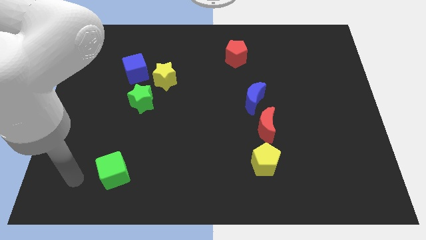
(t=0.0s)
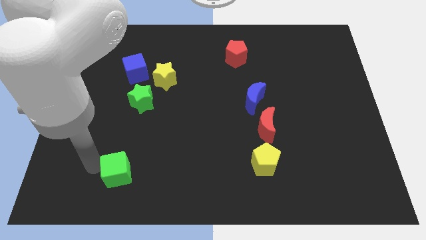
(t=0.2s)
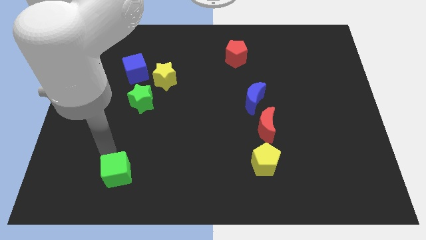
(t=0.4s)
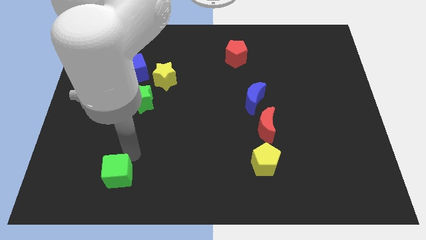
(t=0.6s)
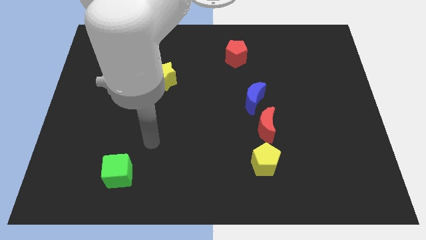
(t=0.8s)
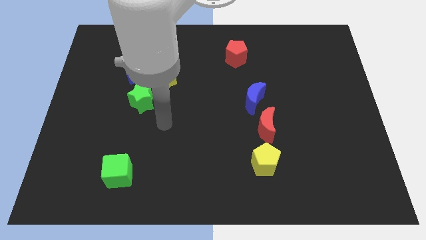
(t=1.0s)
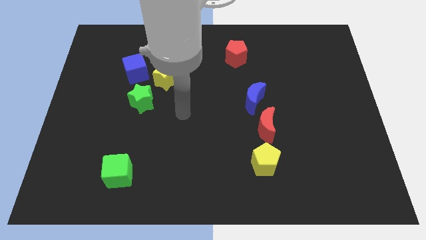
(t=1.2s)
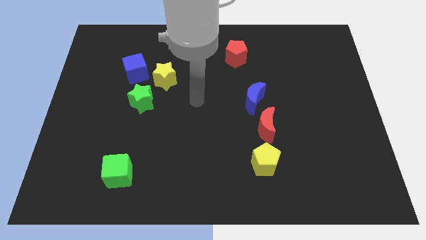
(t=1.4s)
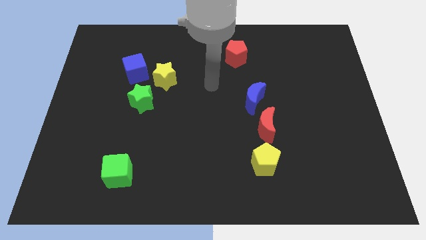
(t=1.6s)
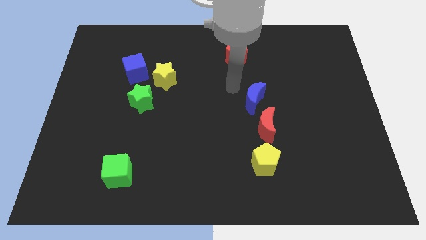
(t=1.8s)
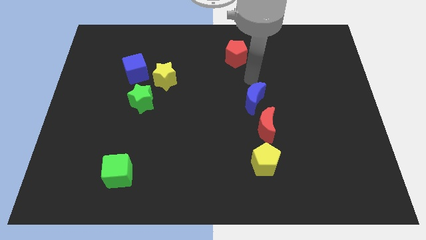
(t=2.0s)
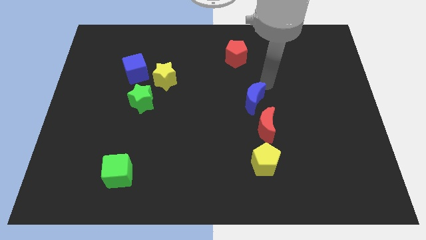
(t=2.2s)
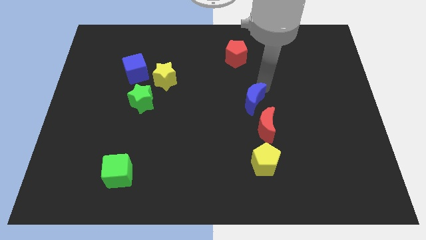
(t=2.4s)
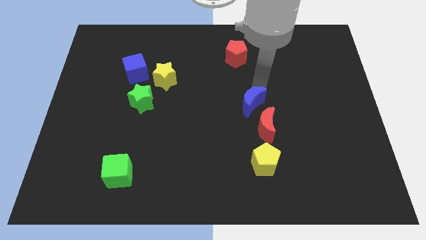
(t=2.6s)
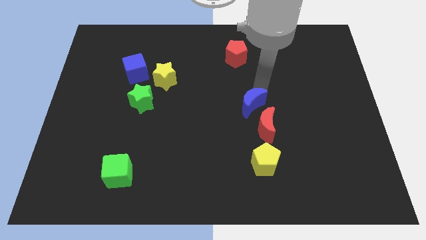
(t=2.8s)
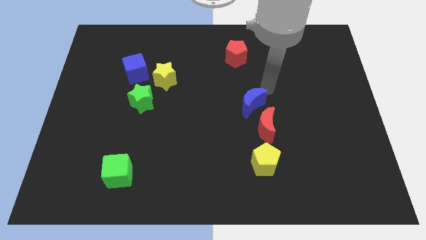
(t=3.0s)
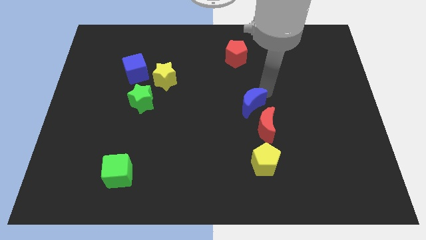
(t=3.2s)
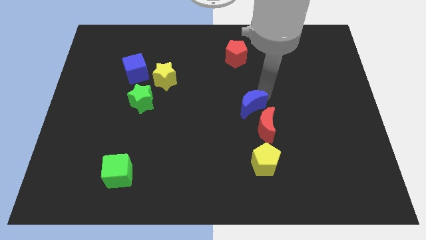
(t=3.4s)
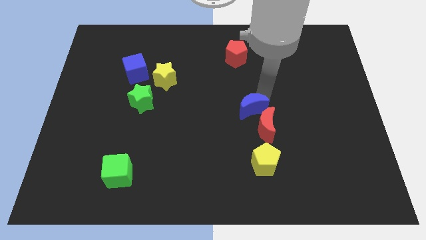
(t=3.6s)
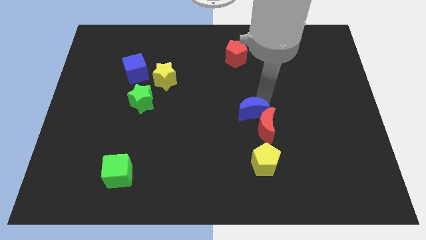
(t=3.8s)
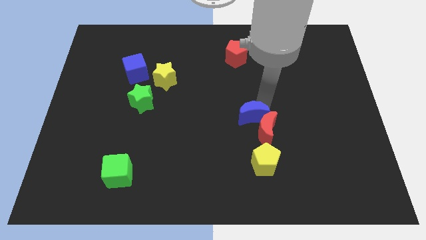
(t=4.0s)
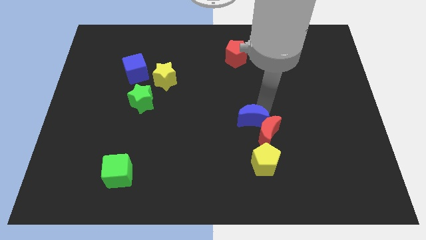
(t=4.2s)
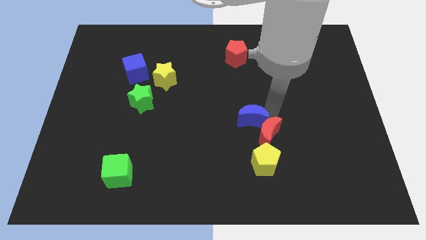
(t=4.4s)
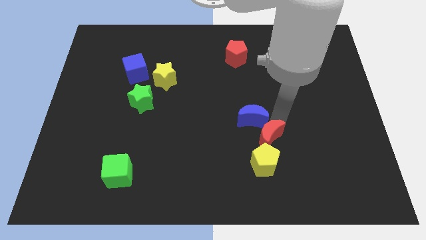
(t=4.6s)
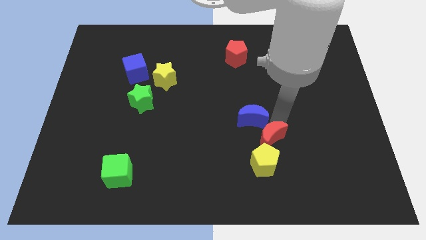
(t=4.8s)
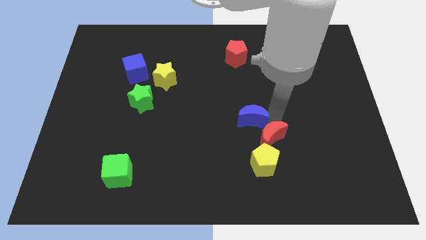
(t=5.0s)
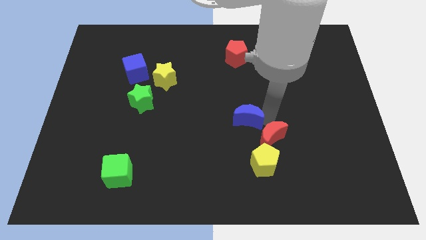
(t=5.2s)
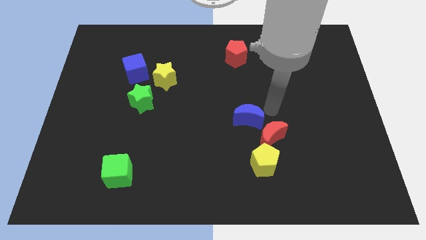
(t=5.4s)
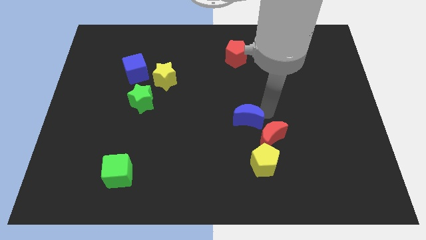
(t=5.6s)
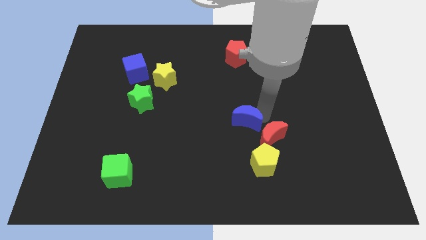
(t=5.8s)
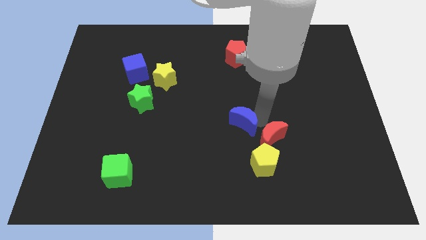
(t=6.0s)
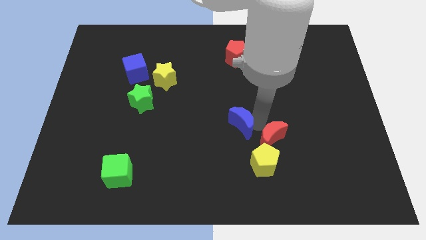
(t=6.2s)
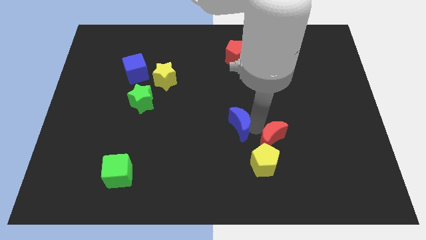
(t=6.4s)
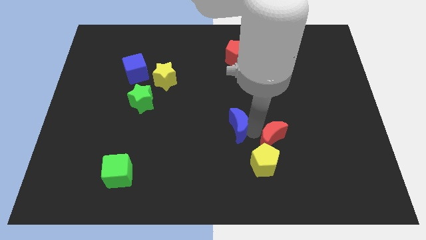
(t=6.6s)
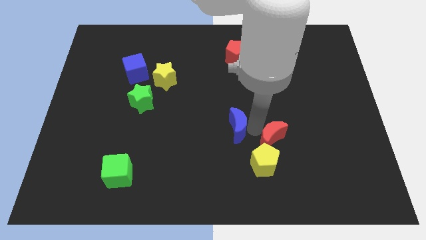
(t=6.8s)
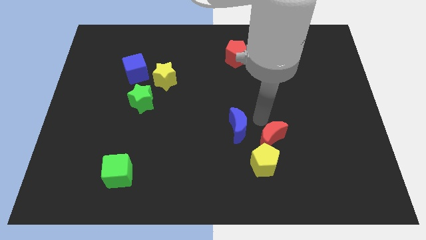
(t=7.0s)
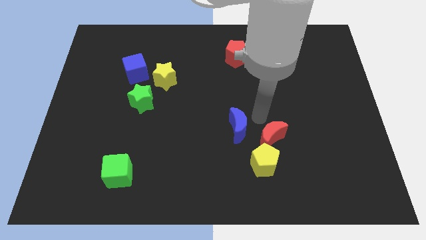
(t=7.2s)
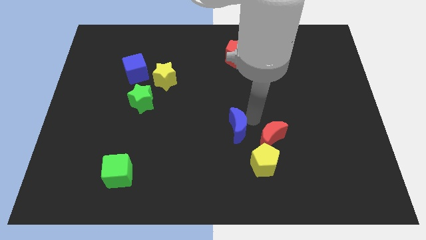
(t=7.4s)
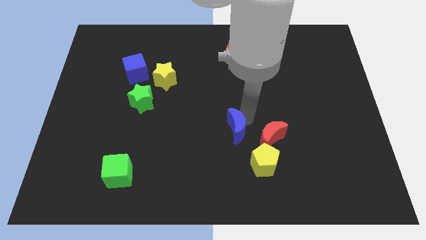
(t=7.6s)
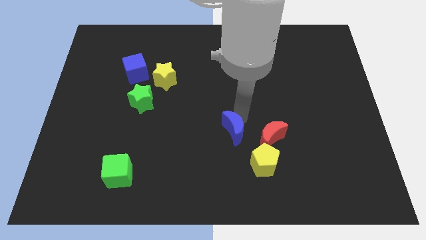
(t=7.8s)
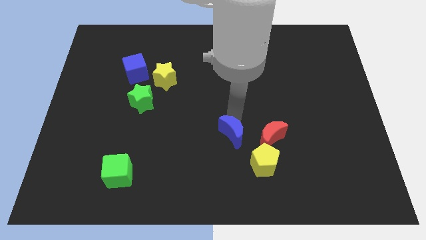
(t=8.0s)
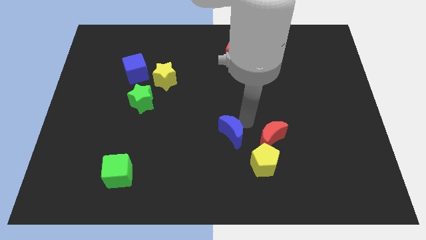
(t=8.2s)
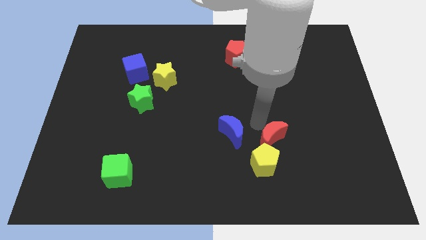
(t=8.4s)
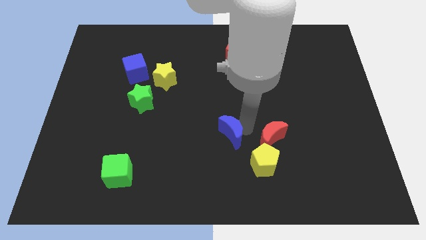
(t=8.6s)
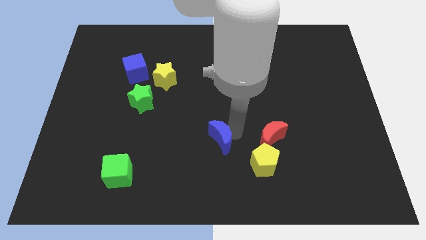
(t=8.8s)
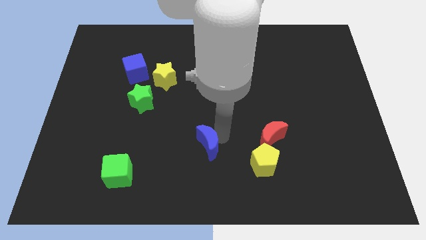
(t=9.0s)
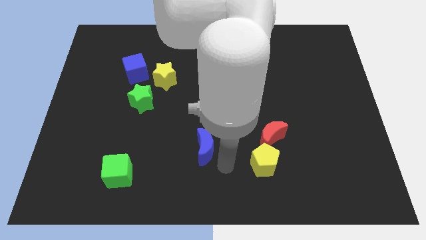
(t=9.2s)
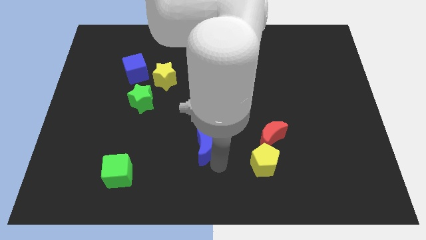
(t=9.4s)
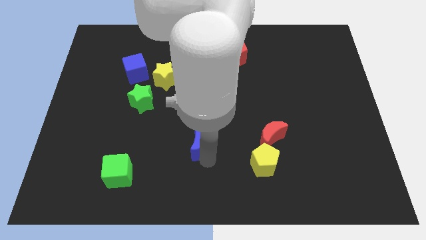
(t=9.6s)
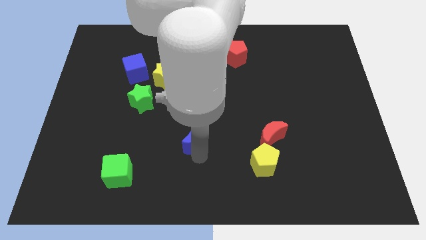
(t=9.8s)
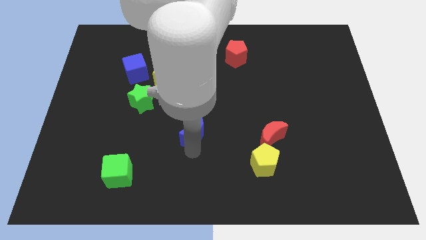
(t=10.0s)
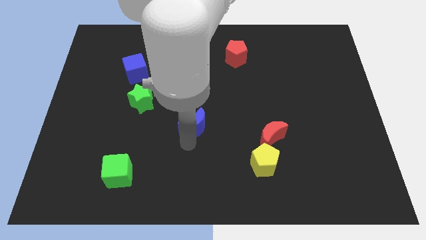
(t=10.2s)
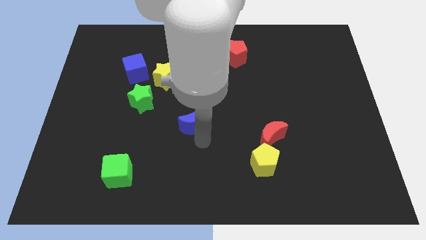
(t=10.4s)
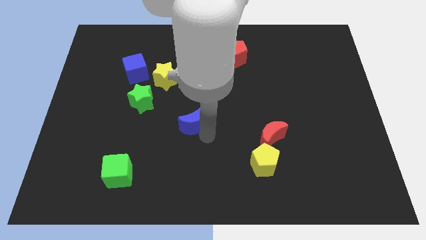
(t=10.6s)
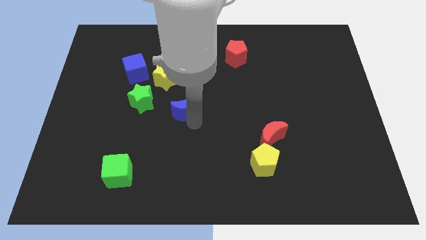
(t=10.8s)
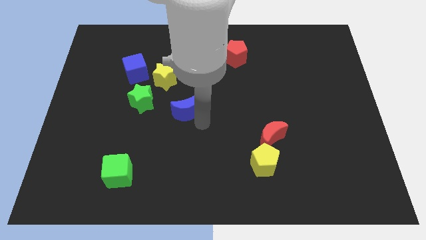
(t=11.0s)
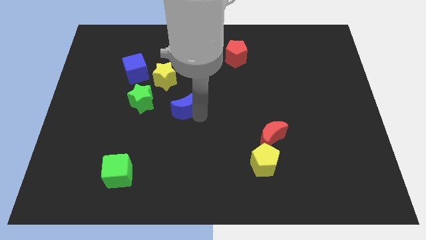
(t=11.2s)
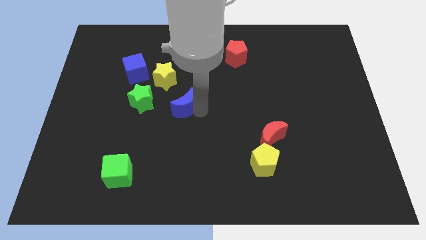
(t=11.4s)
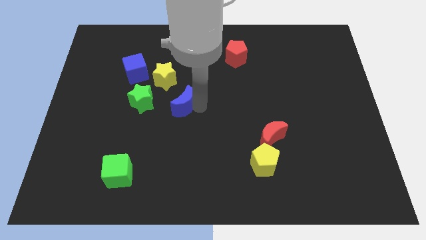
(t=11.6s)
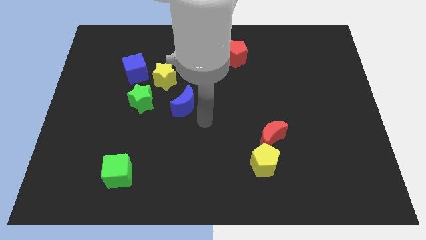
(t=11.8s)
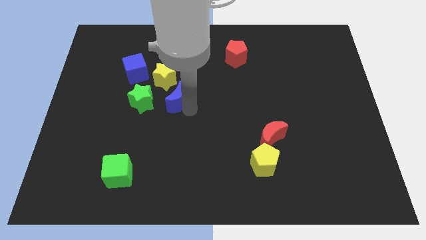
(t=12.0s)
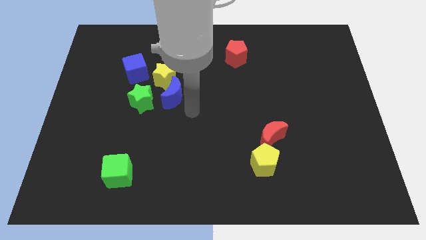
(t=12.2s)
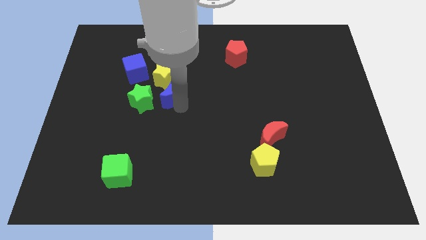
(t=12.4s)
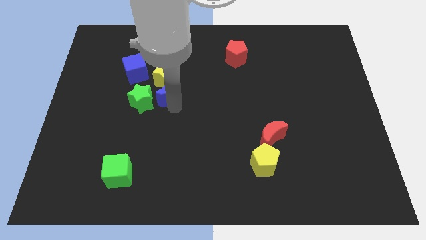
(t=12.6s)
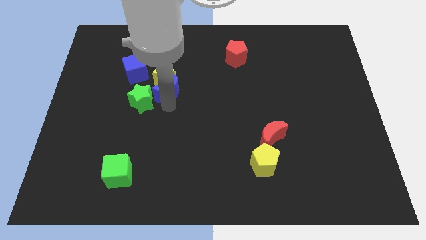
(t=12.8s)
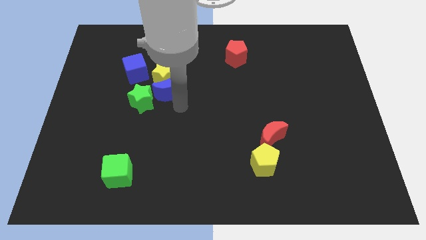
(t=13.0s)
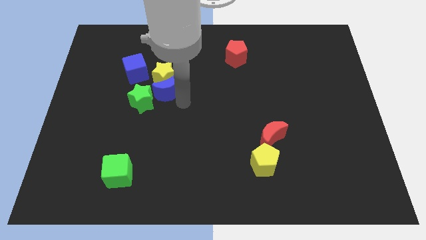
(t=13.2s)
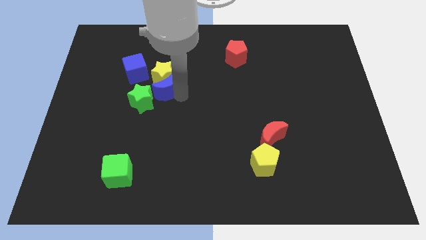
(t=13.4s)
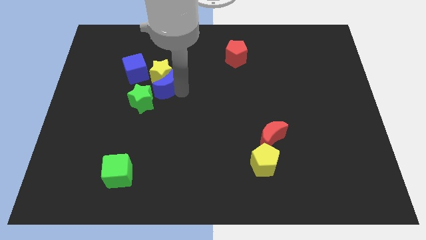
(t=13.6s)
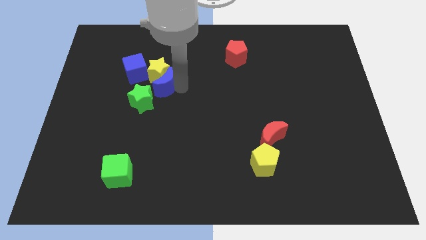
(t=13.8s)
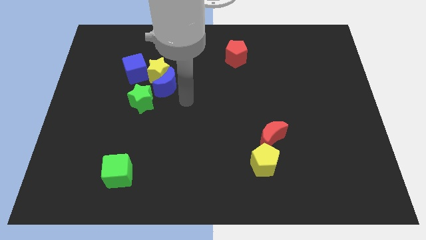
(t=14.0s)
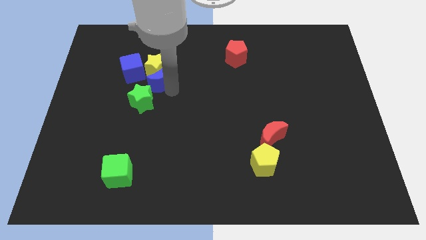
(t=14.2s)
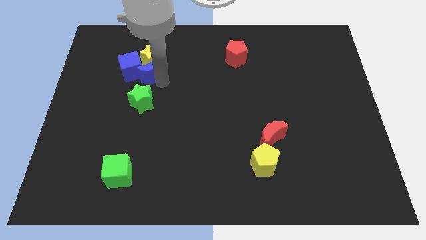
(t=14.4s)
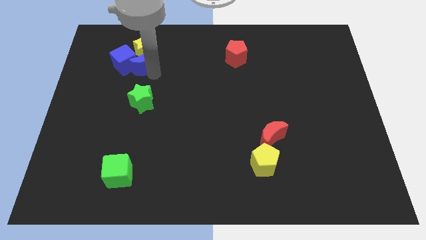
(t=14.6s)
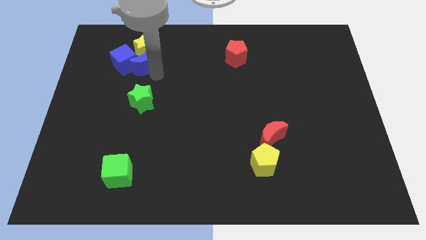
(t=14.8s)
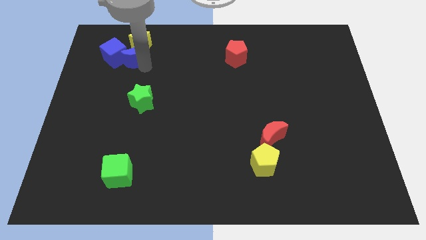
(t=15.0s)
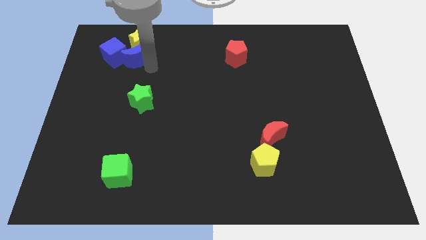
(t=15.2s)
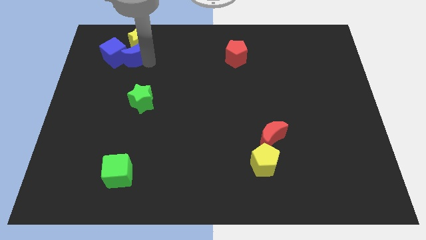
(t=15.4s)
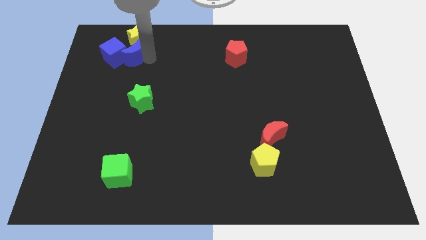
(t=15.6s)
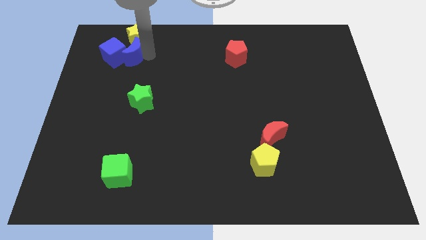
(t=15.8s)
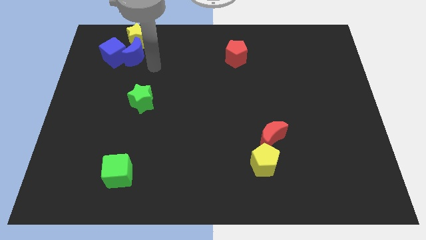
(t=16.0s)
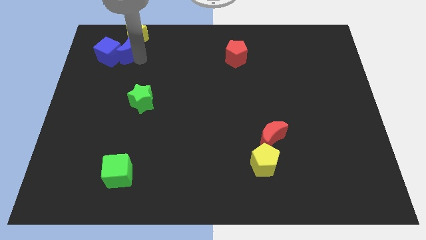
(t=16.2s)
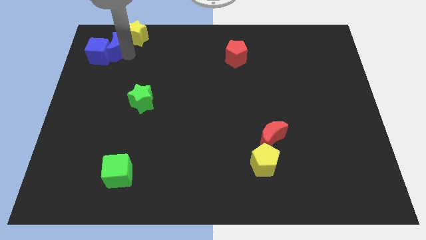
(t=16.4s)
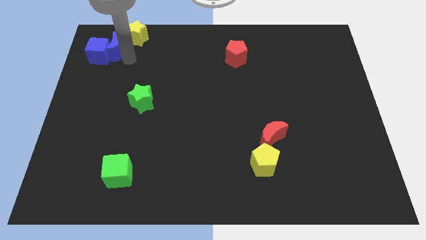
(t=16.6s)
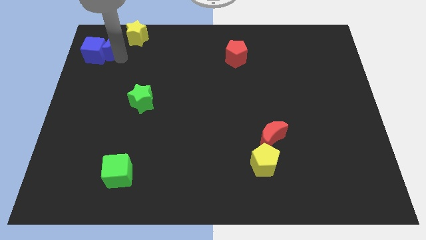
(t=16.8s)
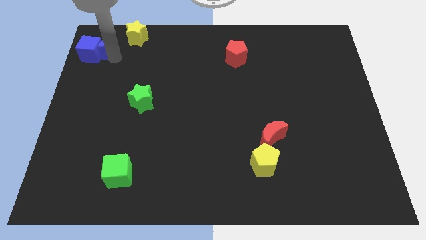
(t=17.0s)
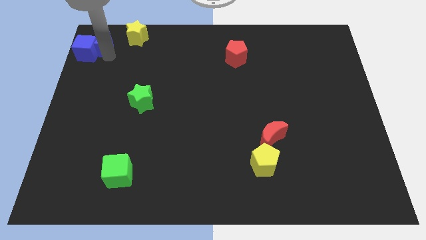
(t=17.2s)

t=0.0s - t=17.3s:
slide the blue moon to the upper left corner
